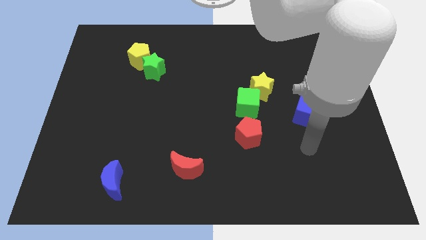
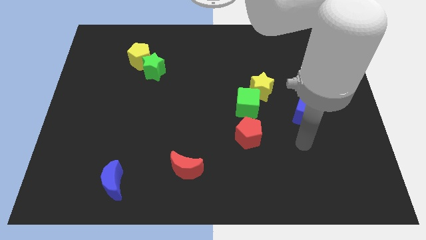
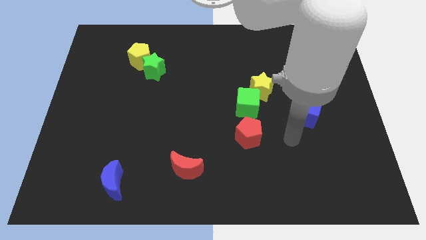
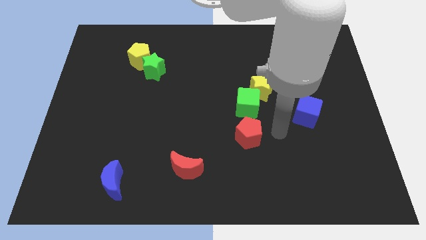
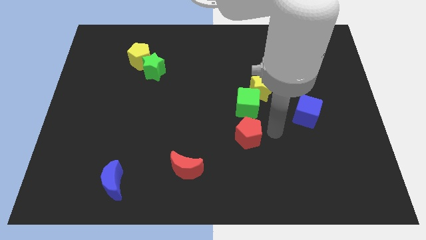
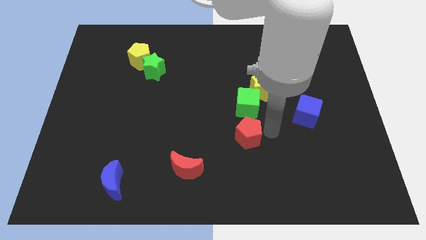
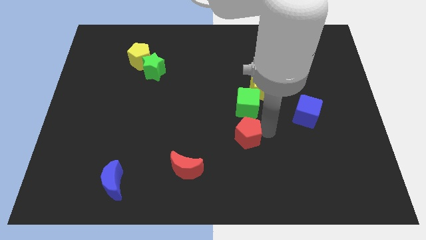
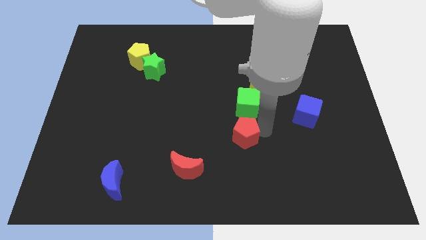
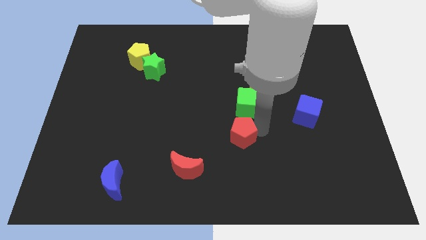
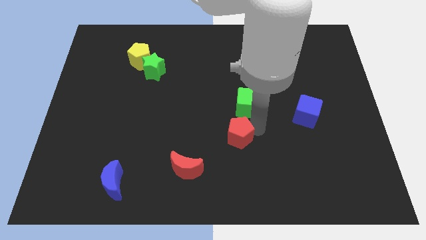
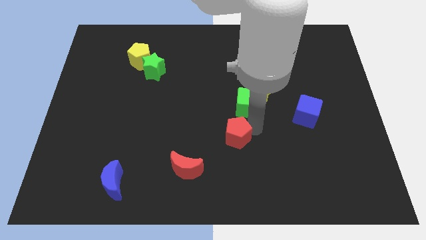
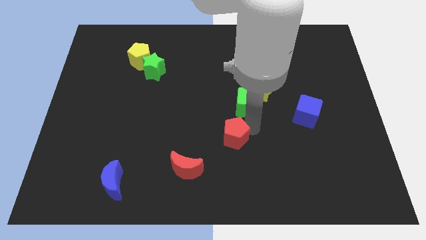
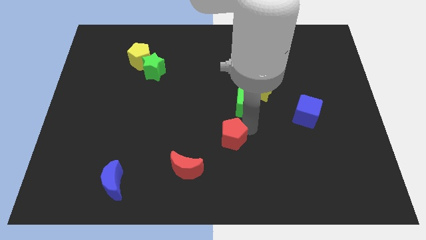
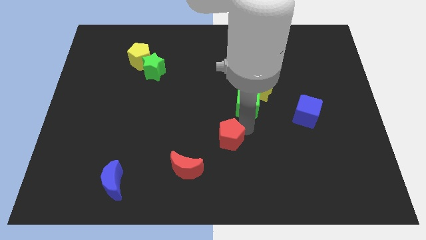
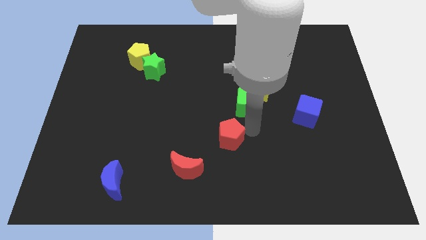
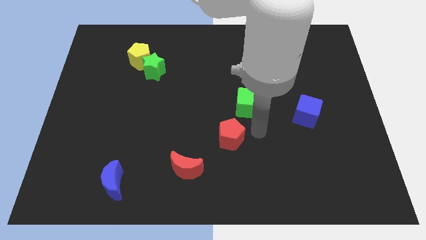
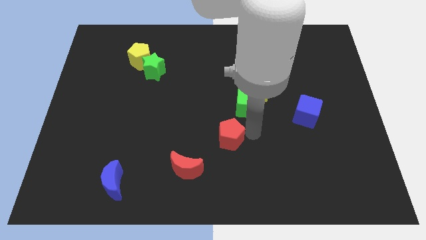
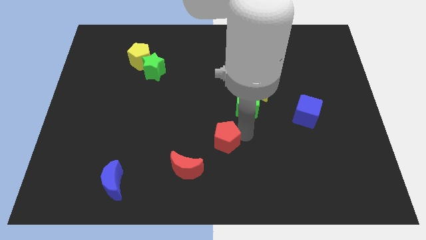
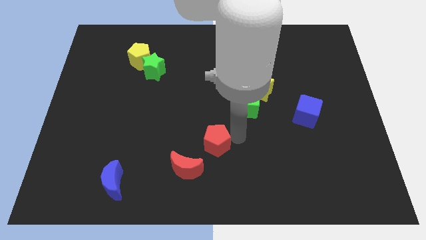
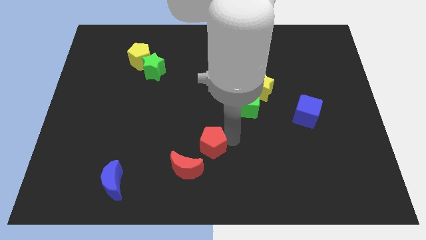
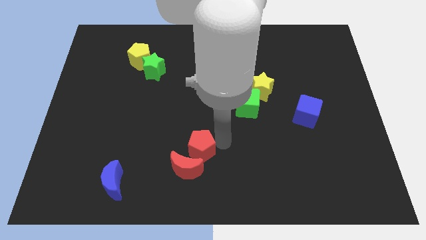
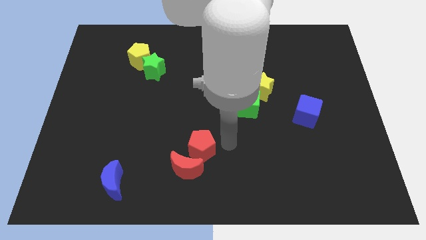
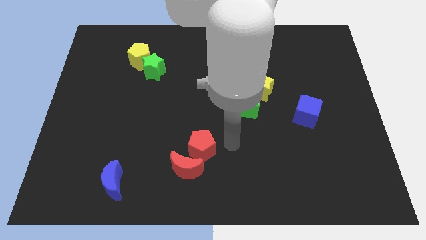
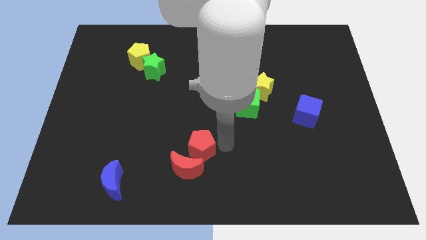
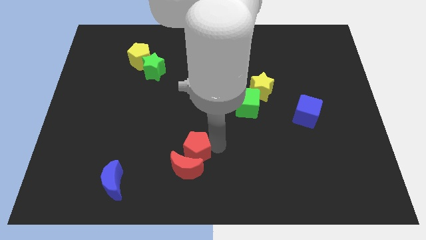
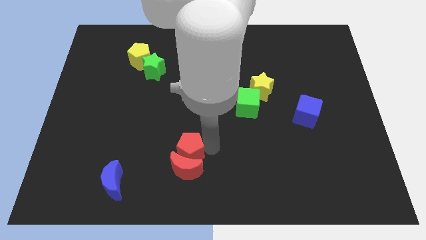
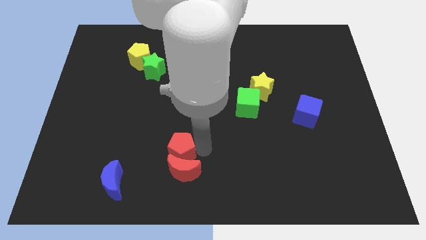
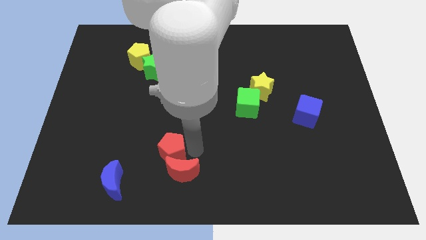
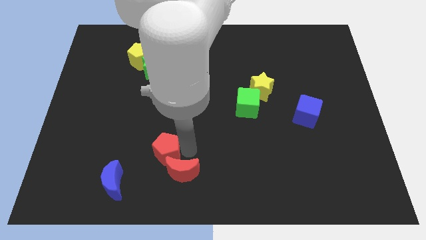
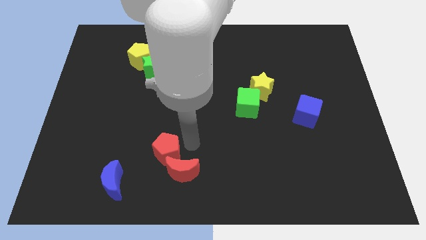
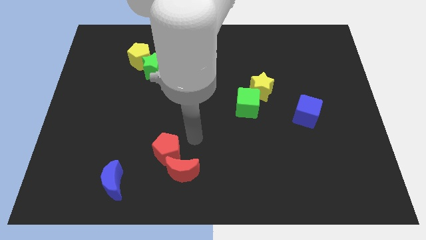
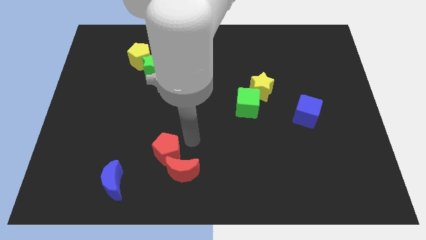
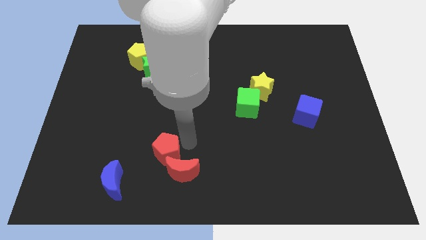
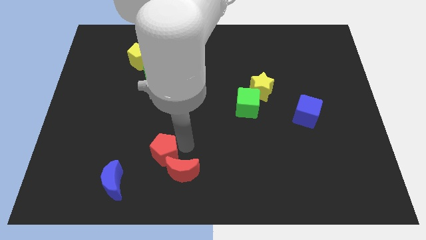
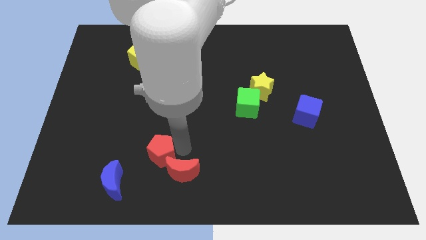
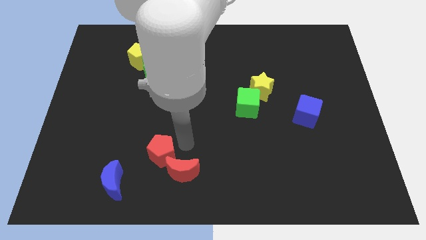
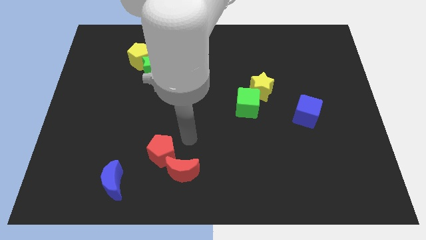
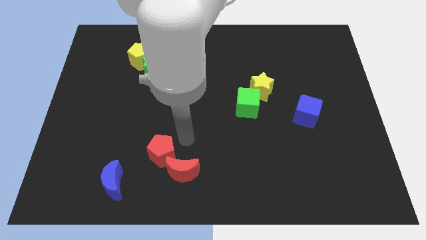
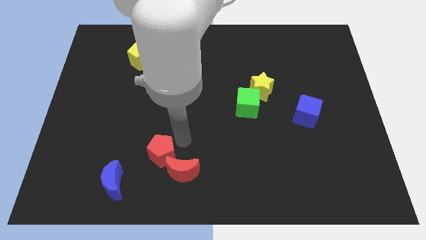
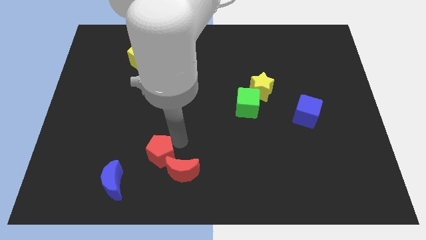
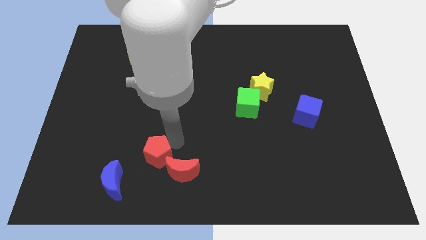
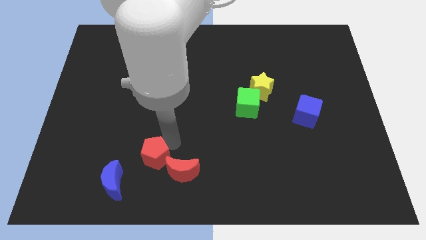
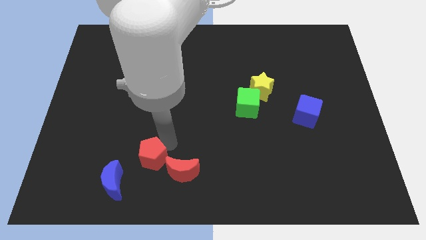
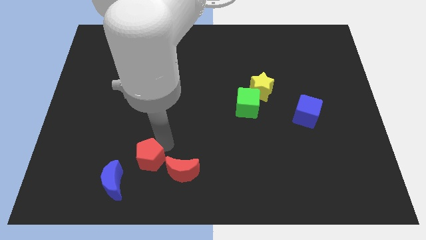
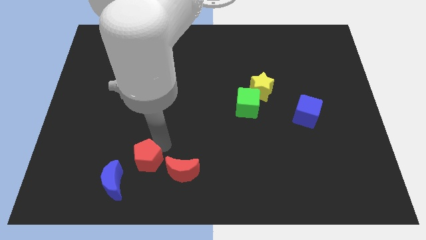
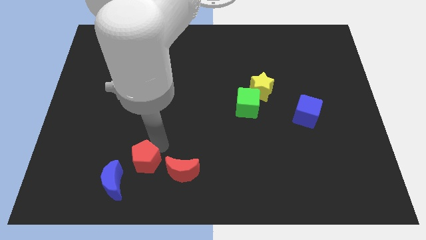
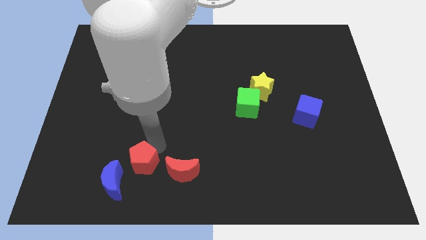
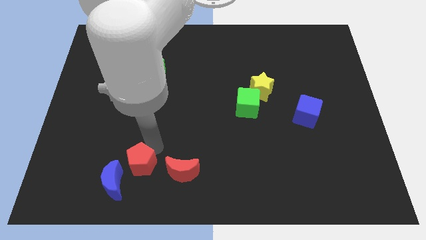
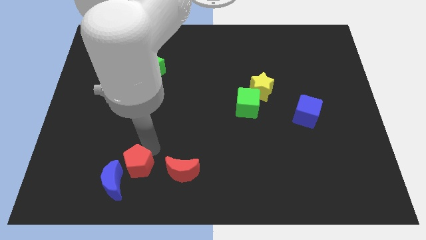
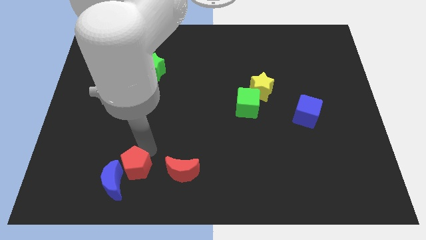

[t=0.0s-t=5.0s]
slide the red pentagon towards the blue moon

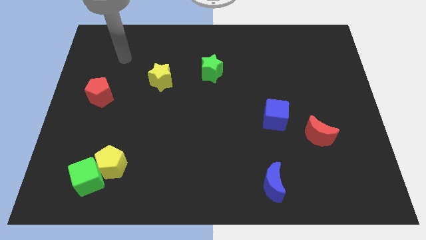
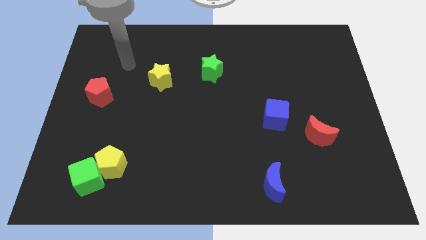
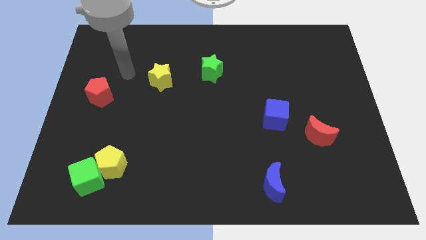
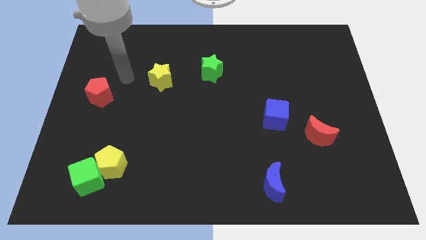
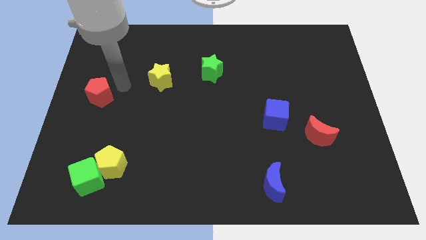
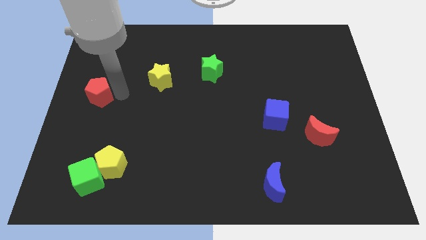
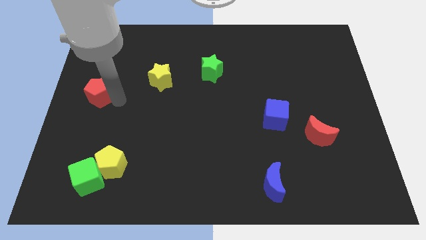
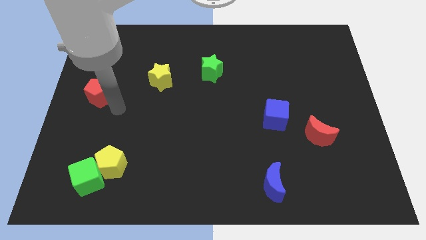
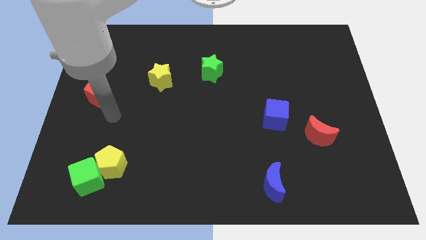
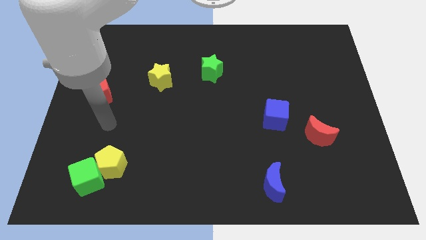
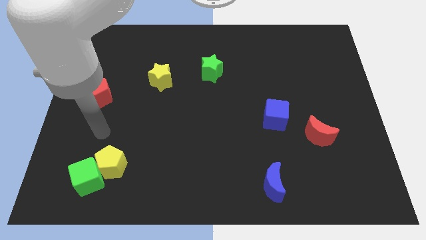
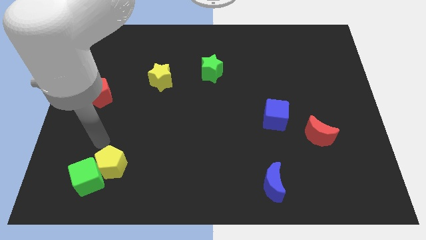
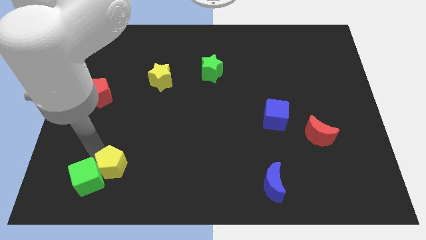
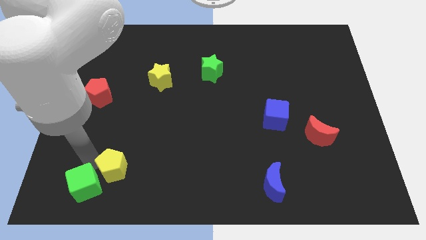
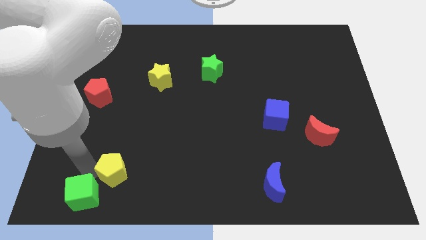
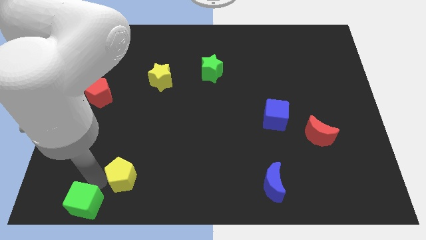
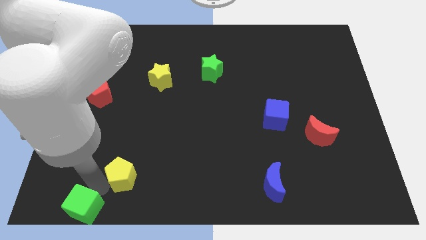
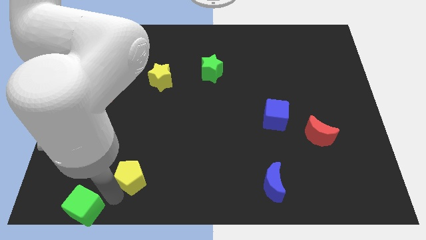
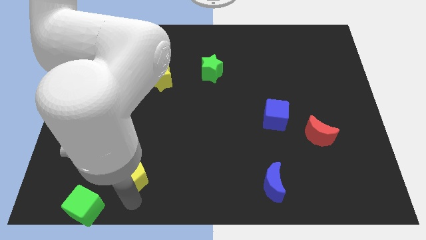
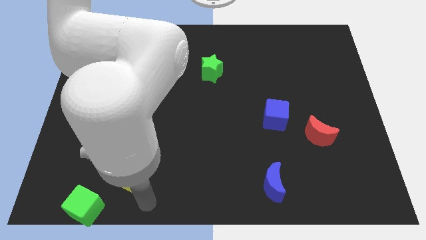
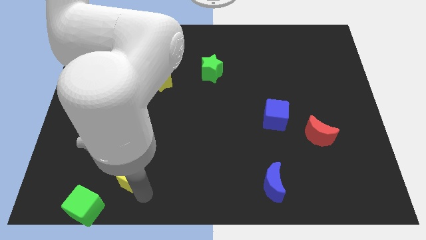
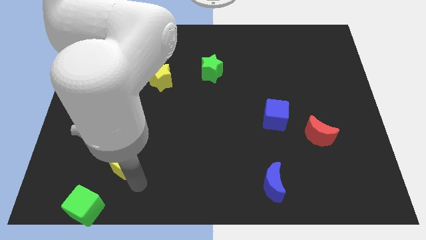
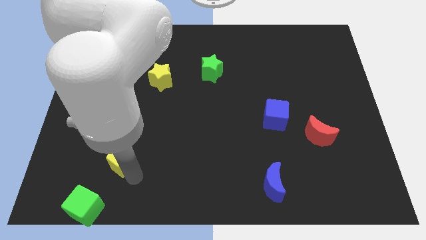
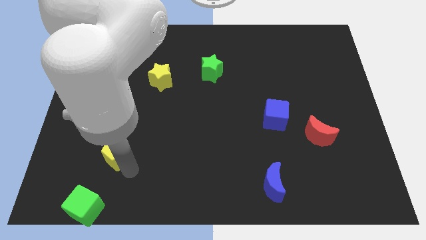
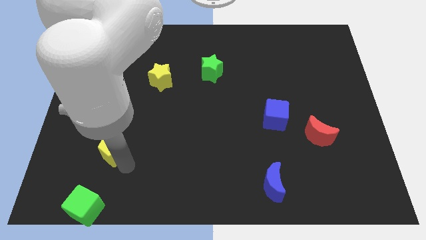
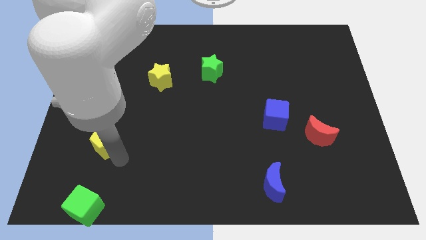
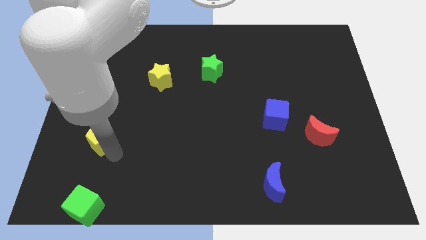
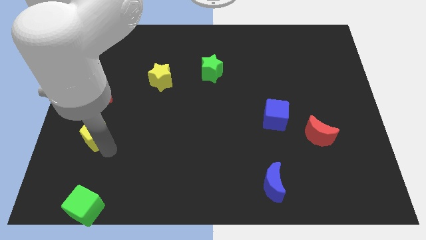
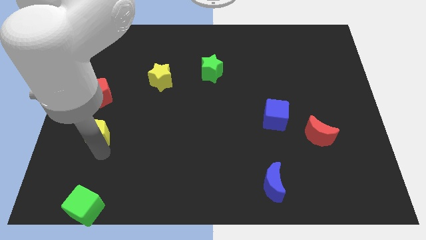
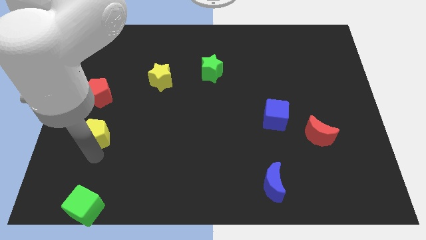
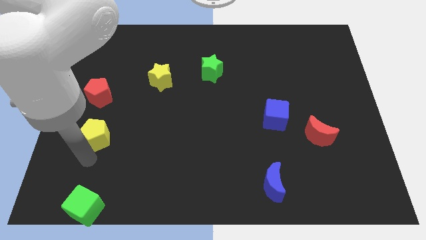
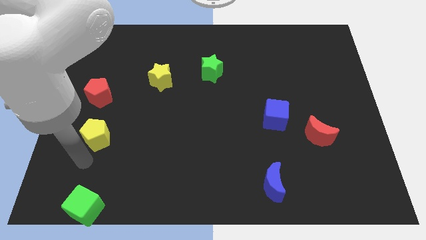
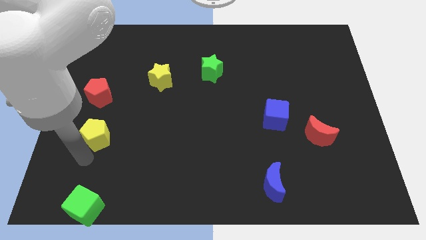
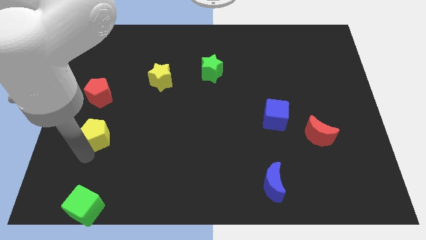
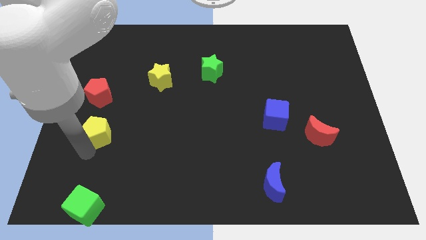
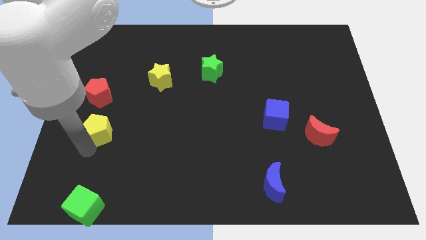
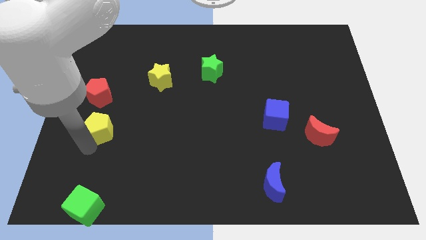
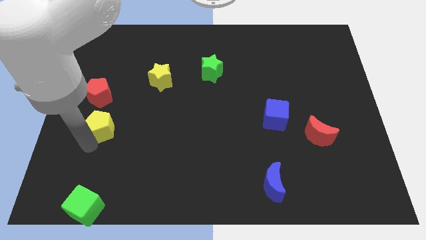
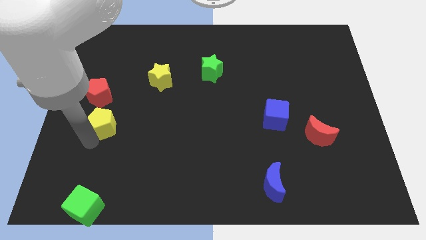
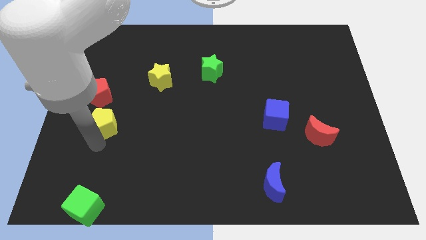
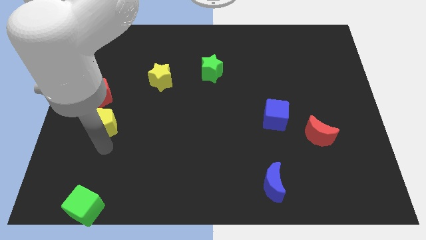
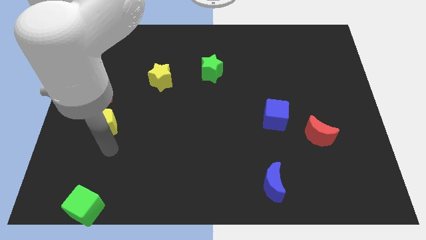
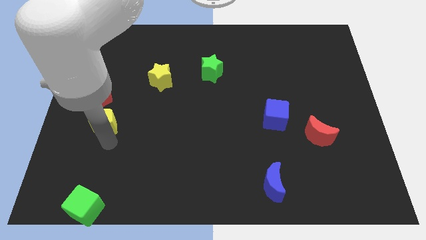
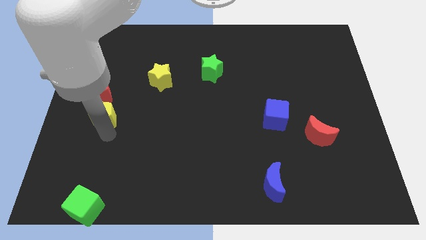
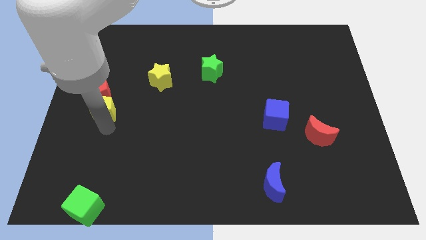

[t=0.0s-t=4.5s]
push the yellow pentagon close to the red pentagon
